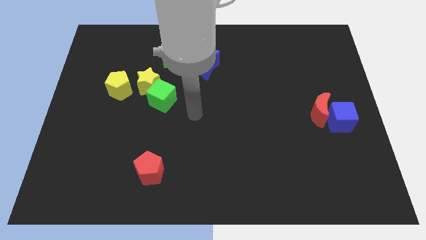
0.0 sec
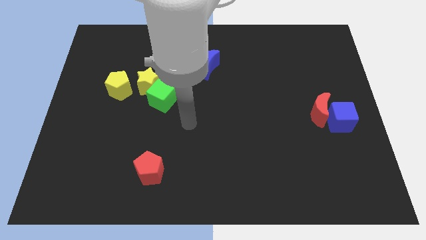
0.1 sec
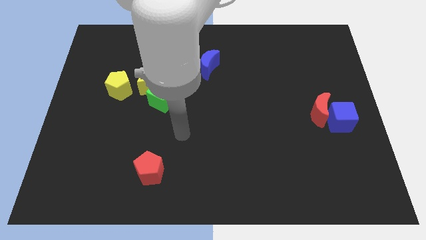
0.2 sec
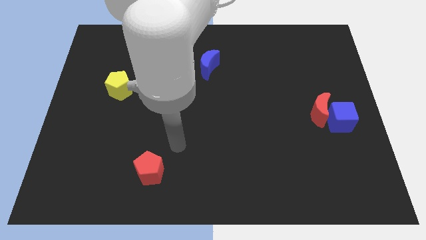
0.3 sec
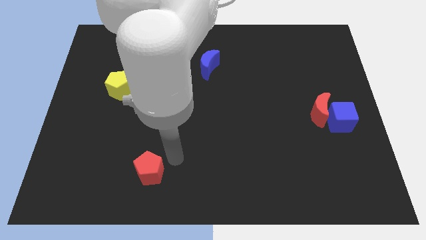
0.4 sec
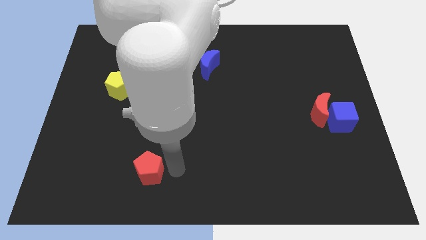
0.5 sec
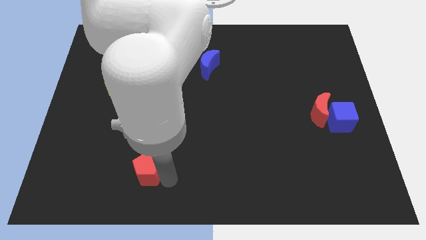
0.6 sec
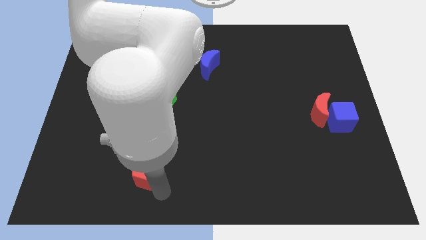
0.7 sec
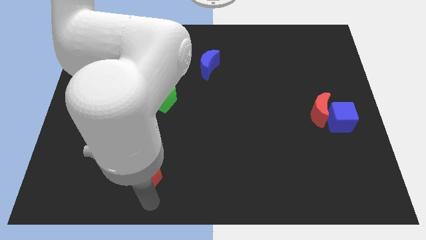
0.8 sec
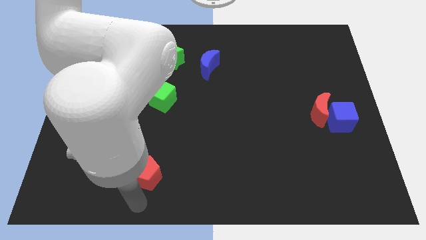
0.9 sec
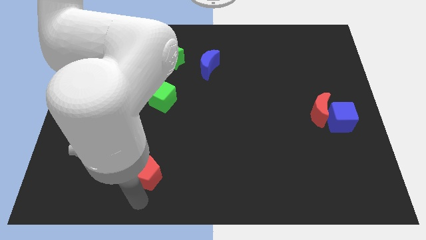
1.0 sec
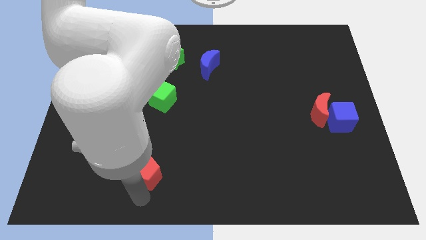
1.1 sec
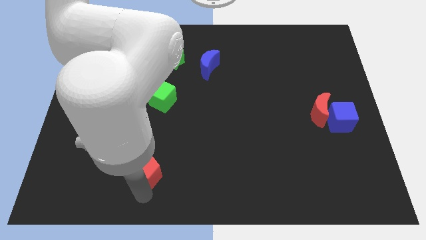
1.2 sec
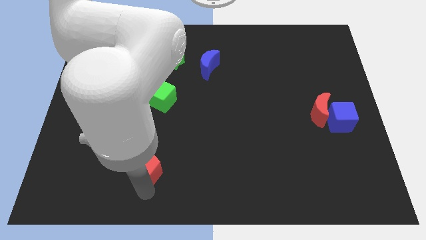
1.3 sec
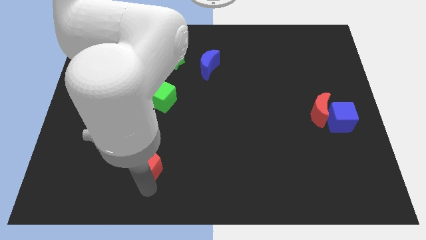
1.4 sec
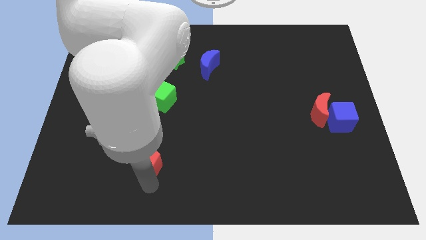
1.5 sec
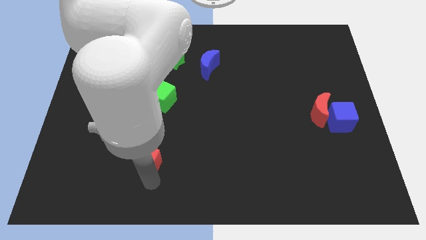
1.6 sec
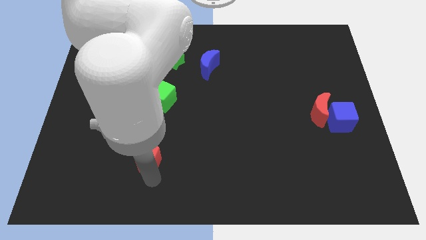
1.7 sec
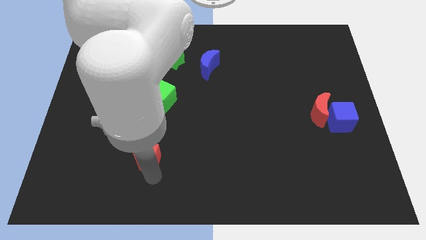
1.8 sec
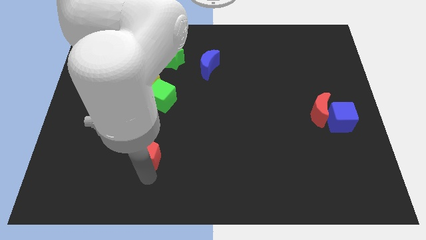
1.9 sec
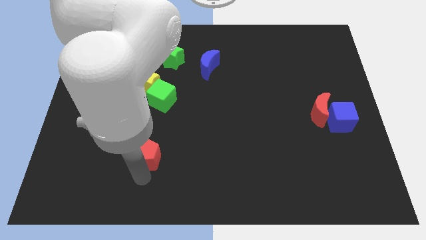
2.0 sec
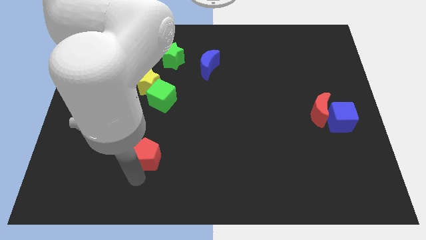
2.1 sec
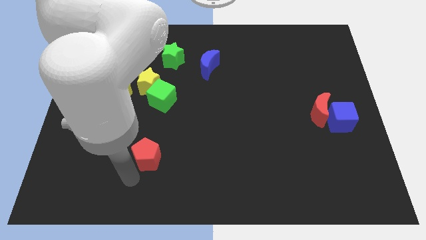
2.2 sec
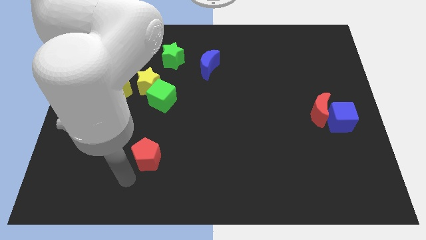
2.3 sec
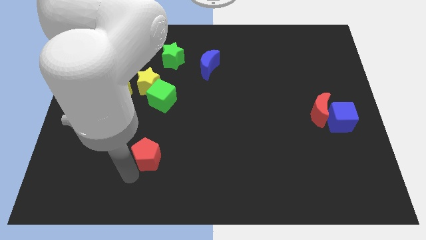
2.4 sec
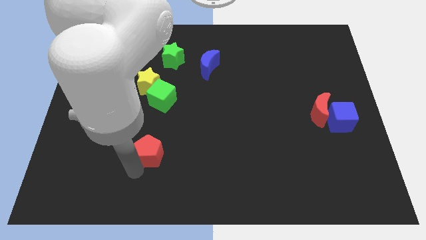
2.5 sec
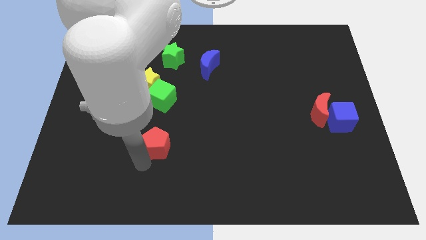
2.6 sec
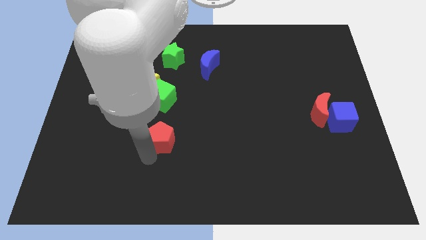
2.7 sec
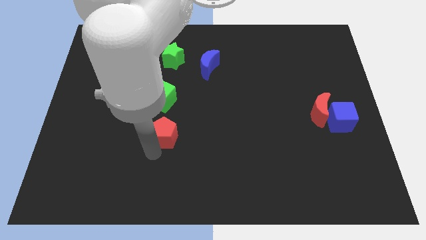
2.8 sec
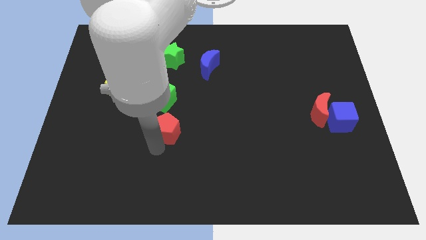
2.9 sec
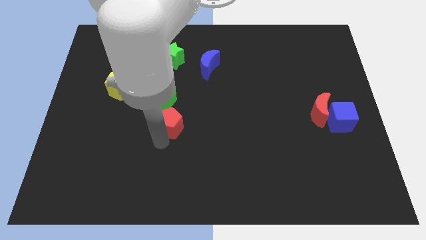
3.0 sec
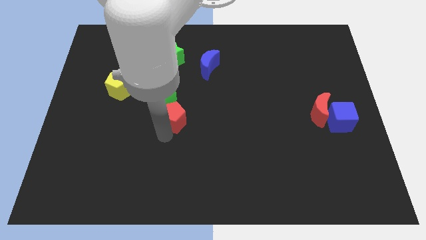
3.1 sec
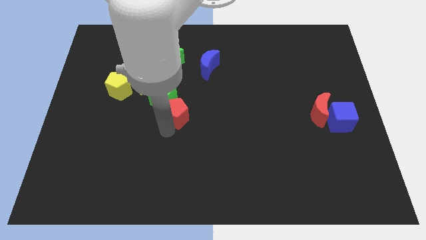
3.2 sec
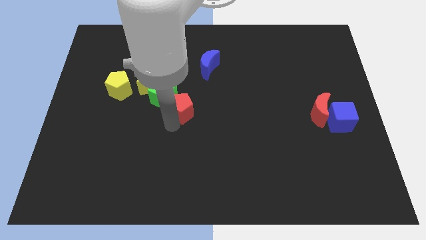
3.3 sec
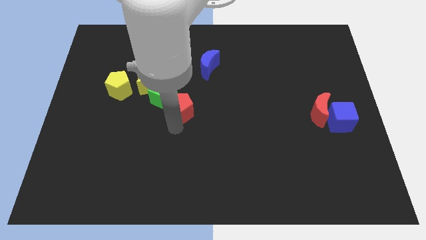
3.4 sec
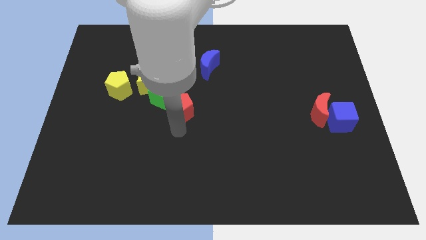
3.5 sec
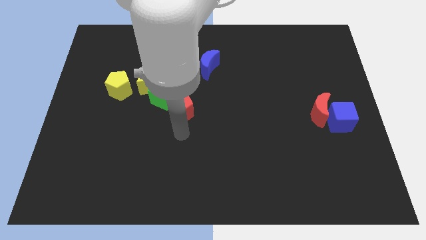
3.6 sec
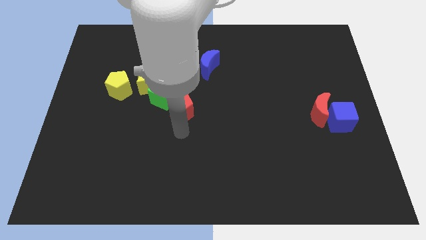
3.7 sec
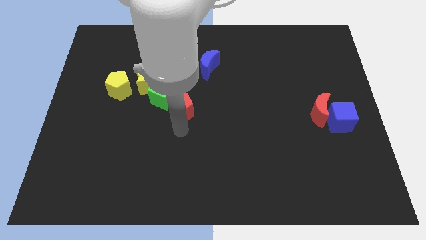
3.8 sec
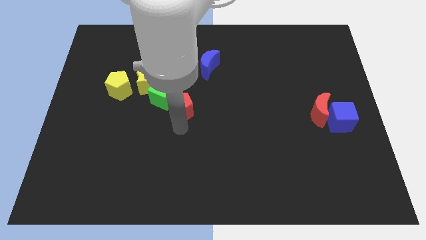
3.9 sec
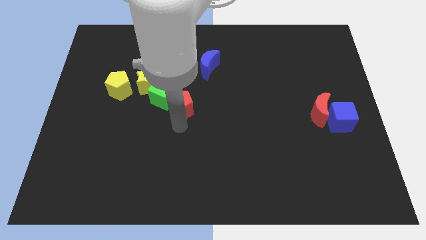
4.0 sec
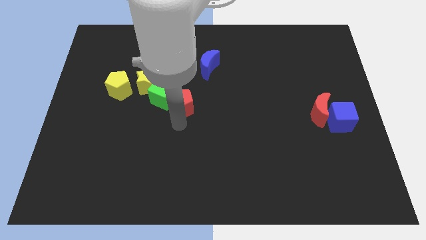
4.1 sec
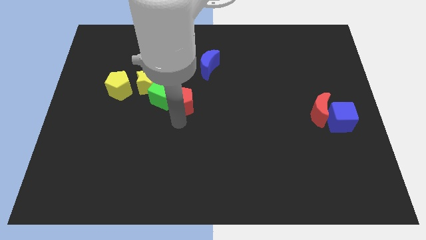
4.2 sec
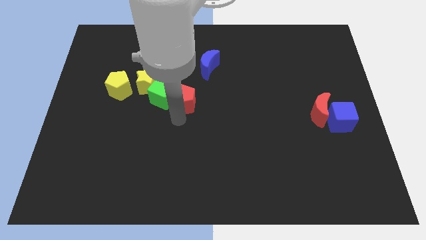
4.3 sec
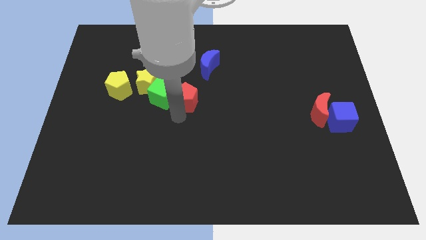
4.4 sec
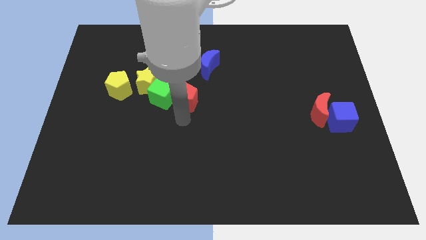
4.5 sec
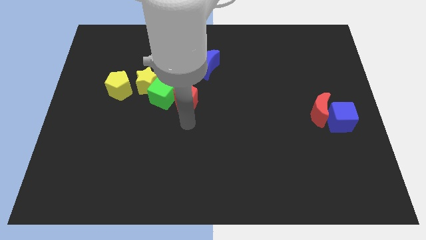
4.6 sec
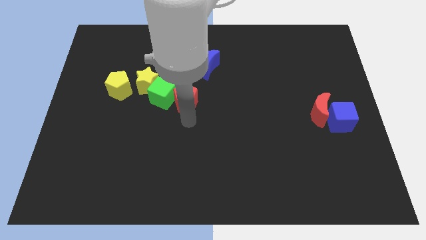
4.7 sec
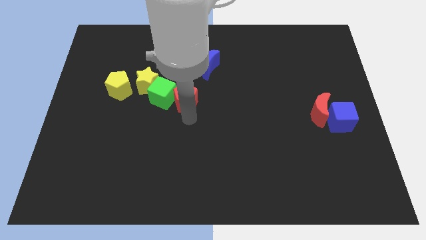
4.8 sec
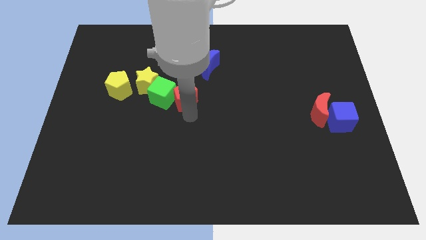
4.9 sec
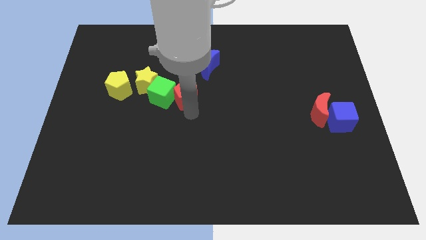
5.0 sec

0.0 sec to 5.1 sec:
move the red pentagon to the top right of the green cube

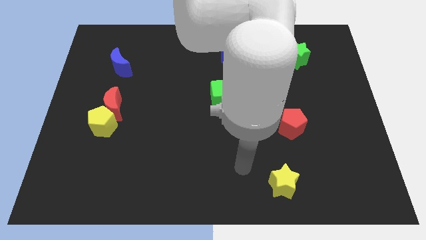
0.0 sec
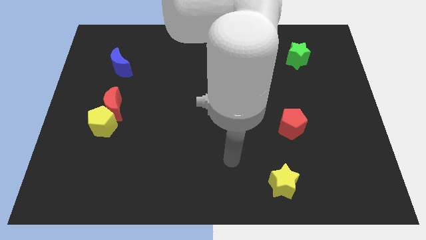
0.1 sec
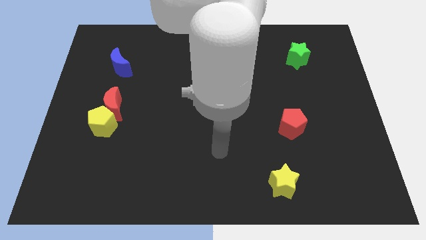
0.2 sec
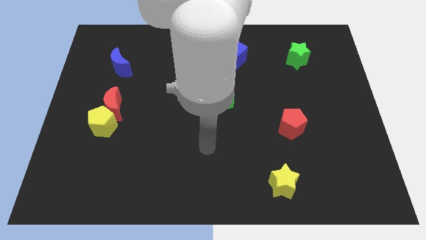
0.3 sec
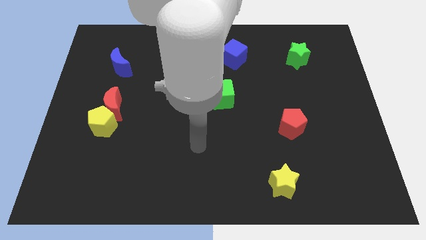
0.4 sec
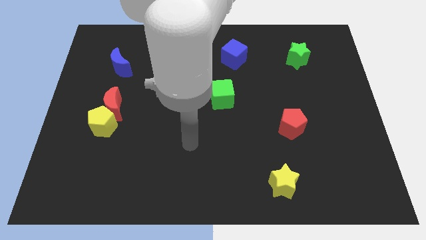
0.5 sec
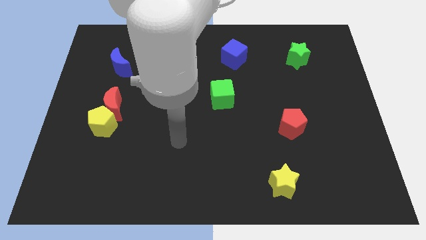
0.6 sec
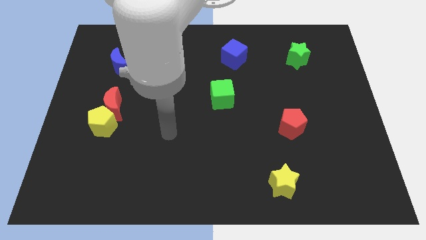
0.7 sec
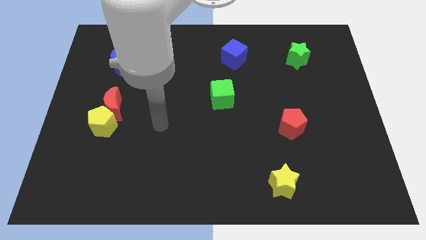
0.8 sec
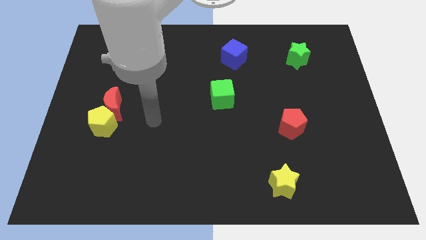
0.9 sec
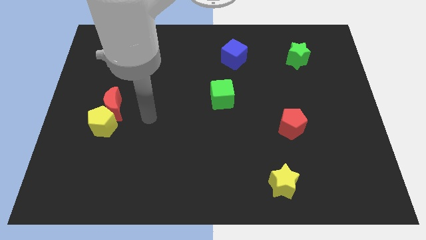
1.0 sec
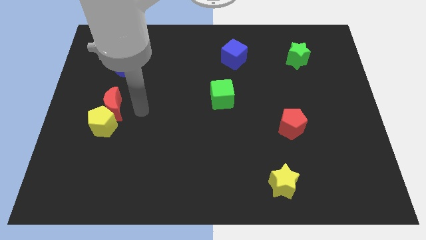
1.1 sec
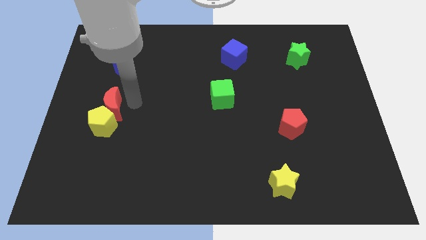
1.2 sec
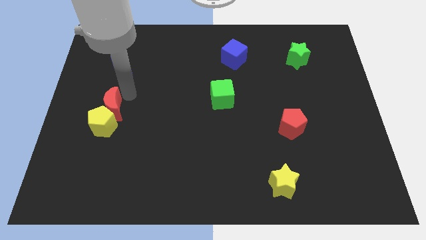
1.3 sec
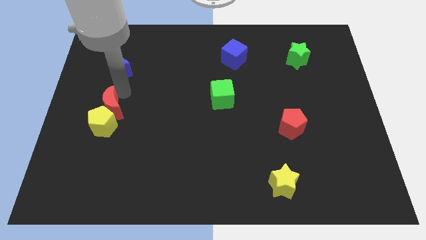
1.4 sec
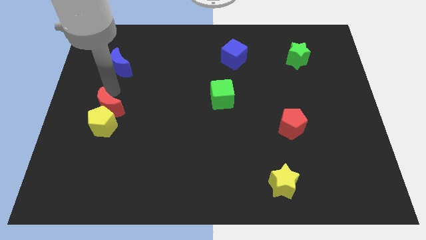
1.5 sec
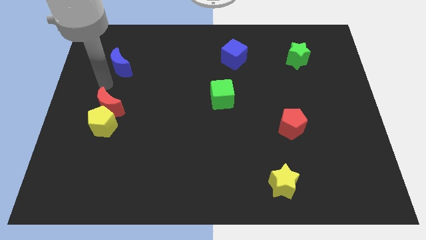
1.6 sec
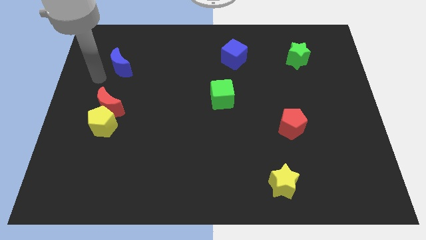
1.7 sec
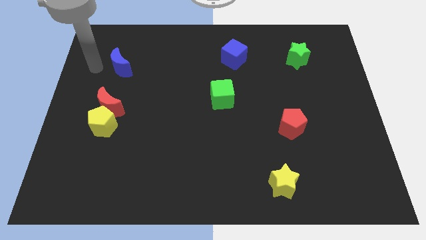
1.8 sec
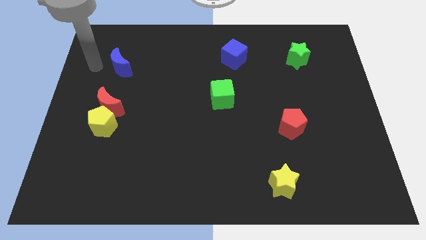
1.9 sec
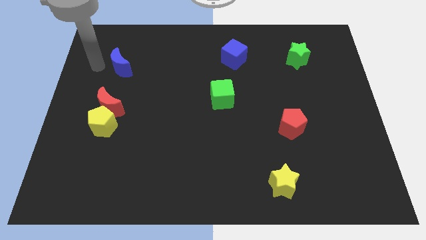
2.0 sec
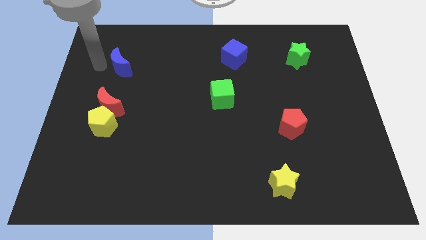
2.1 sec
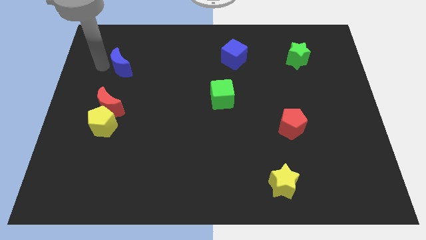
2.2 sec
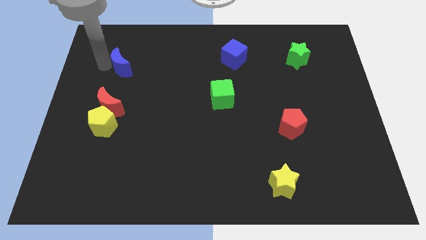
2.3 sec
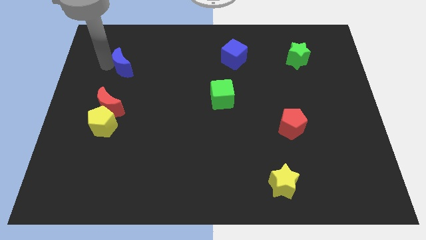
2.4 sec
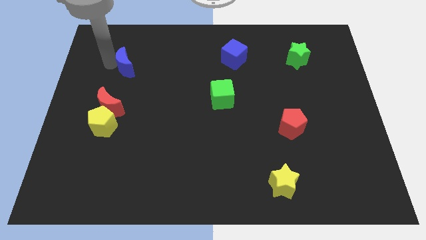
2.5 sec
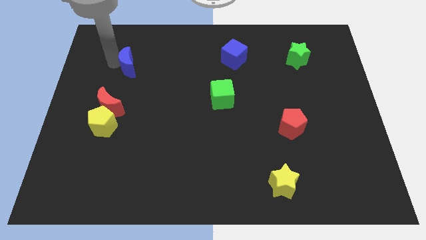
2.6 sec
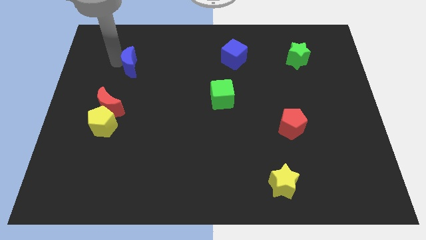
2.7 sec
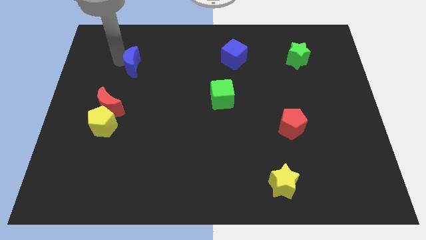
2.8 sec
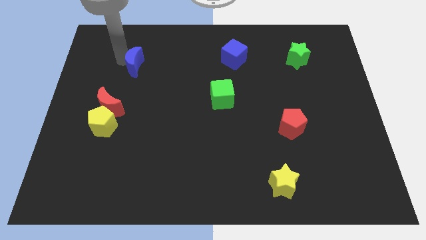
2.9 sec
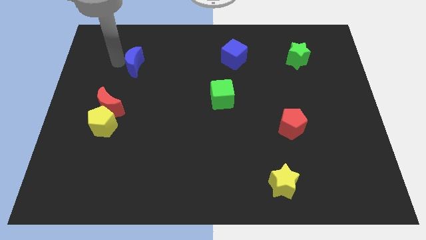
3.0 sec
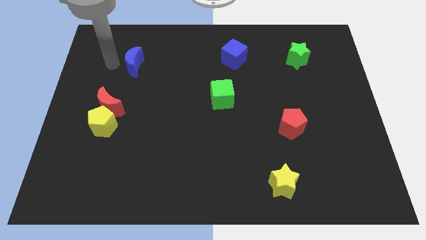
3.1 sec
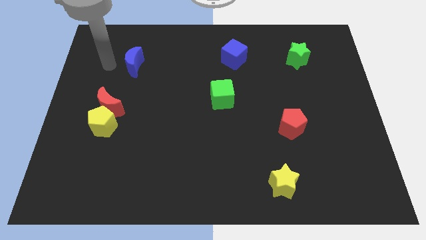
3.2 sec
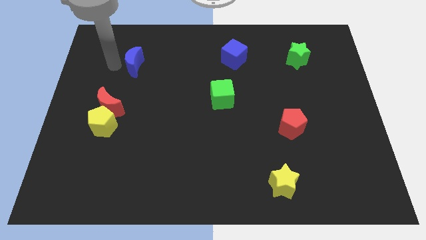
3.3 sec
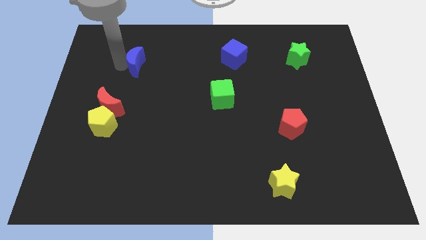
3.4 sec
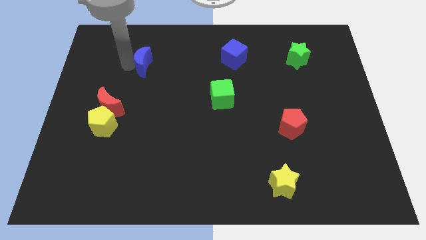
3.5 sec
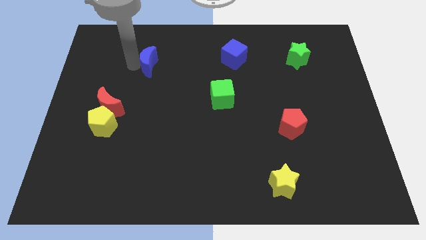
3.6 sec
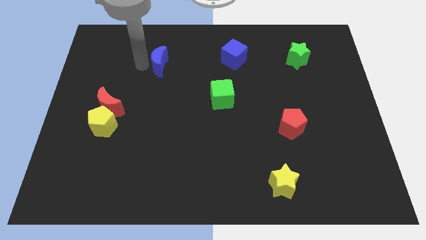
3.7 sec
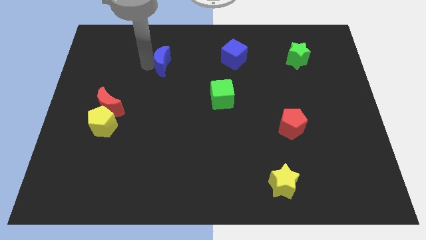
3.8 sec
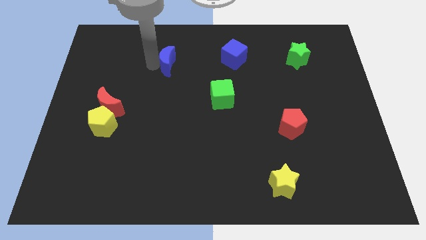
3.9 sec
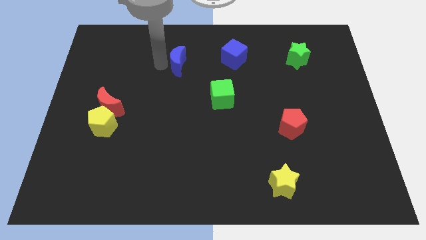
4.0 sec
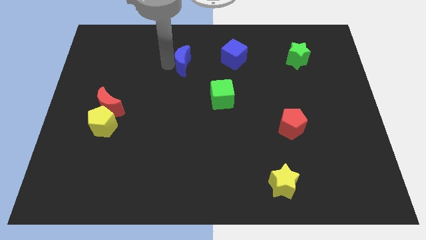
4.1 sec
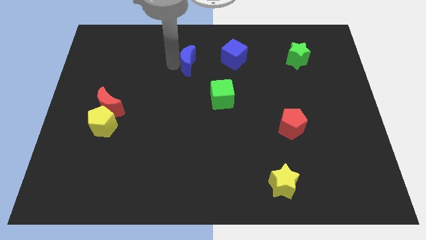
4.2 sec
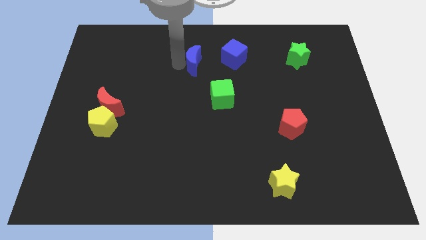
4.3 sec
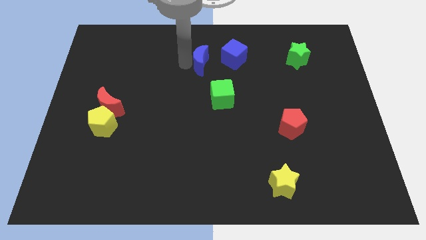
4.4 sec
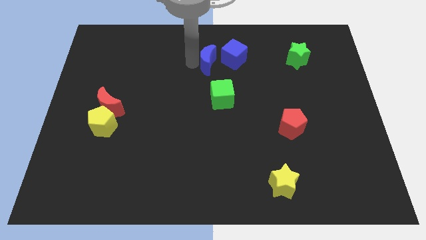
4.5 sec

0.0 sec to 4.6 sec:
move the blue moon above the green cube
